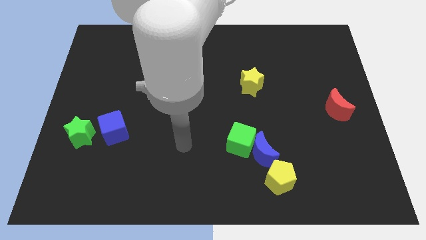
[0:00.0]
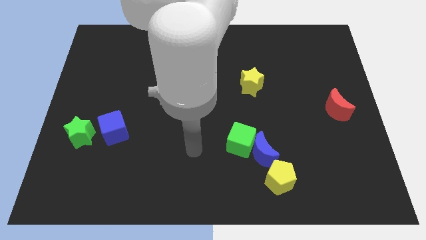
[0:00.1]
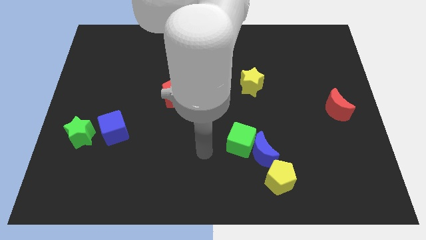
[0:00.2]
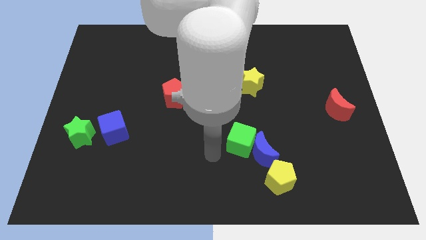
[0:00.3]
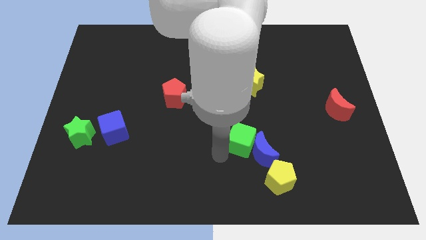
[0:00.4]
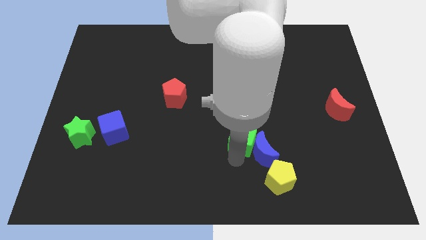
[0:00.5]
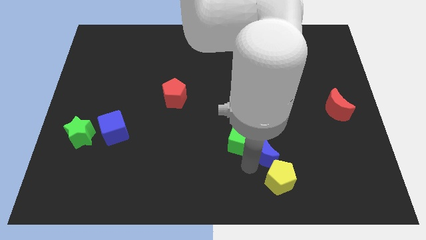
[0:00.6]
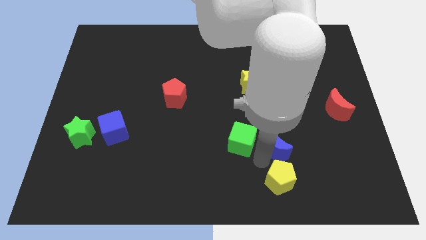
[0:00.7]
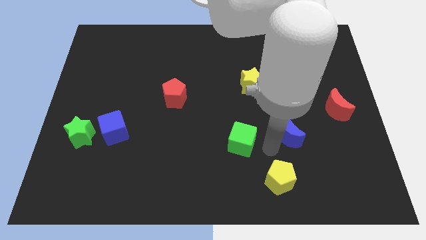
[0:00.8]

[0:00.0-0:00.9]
pull the green cube apart from the blue moon

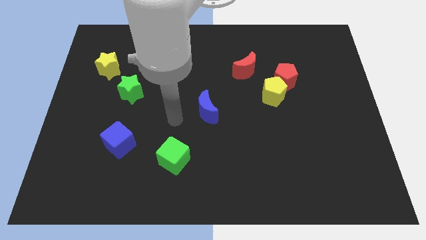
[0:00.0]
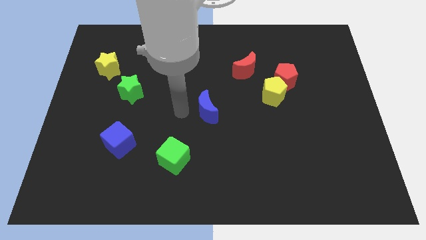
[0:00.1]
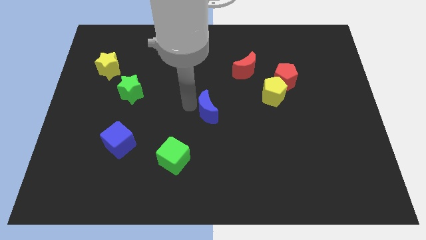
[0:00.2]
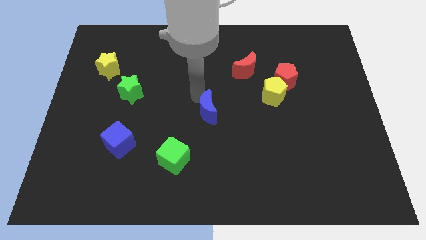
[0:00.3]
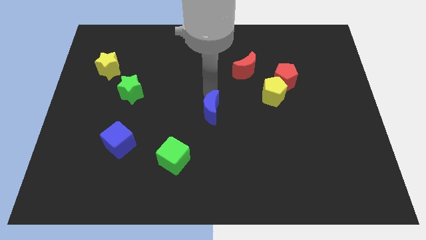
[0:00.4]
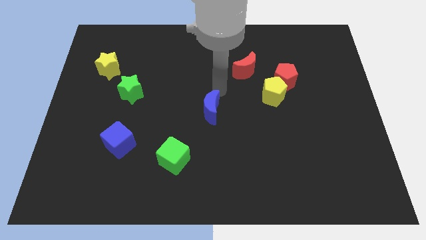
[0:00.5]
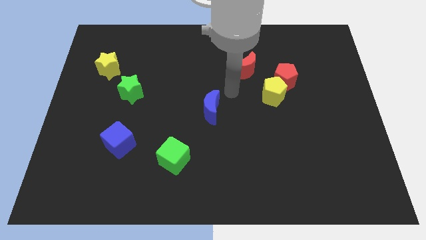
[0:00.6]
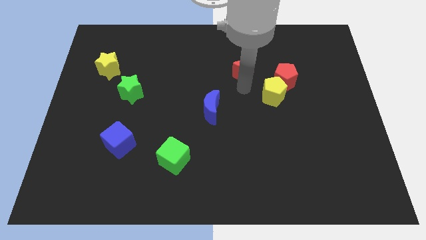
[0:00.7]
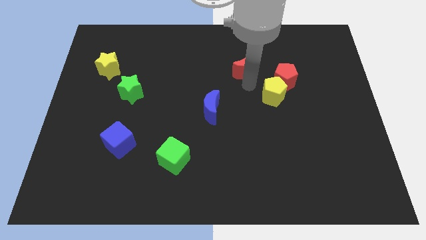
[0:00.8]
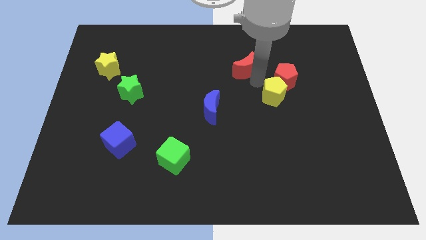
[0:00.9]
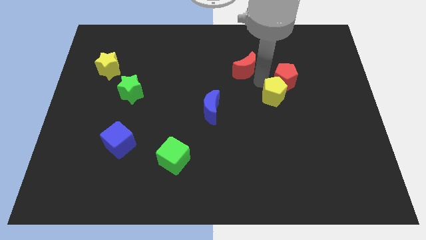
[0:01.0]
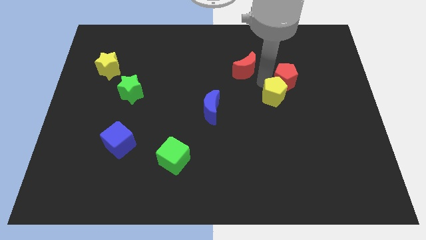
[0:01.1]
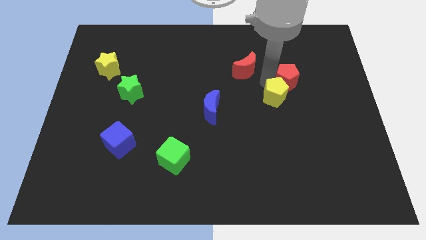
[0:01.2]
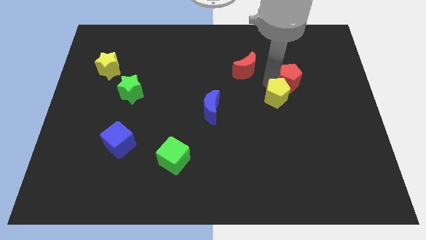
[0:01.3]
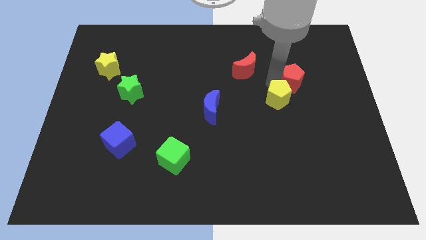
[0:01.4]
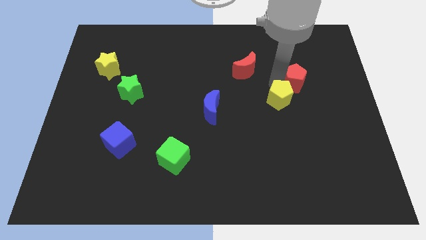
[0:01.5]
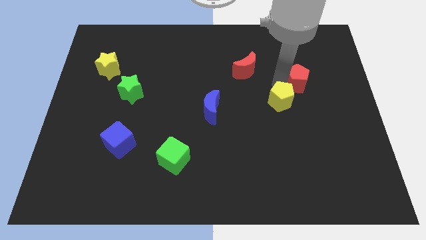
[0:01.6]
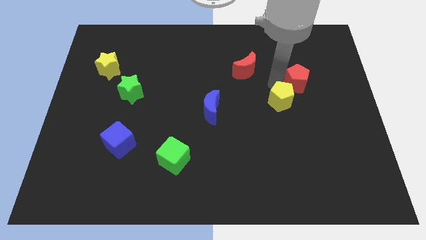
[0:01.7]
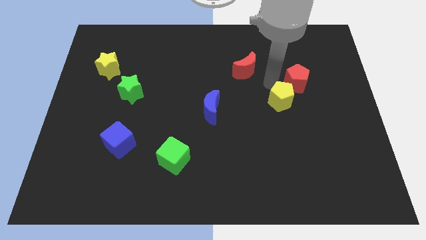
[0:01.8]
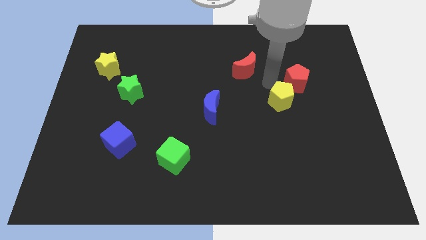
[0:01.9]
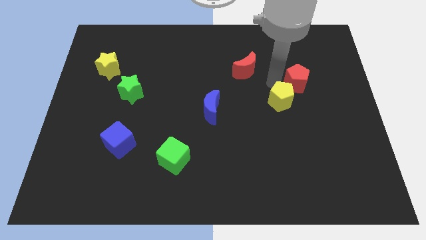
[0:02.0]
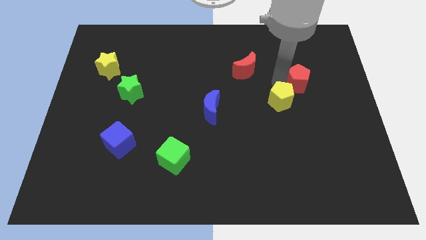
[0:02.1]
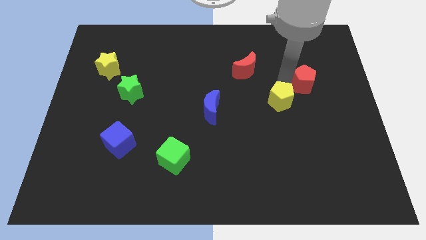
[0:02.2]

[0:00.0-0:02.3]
separate the red pentagon from the yellow pentagon and red moon

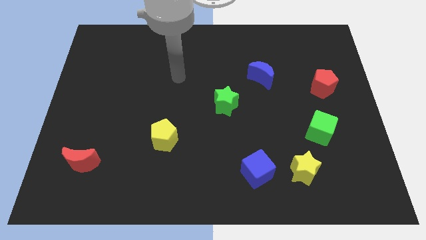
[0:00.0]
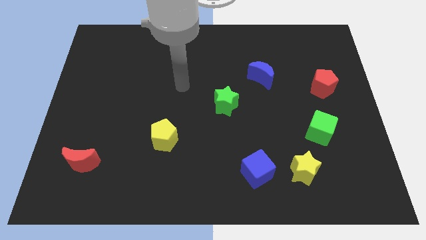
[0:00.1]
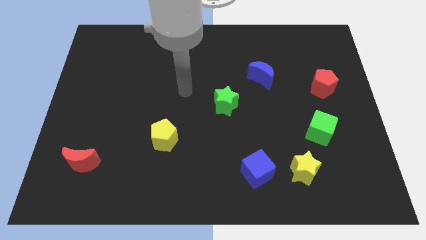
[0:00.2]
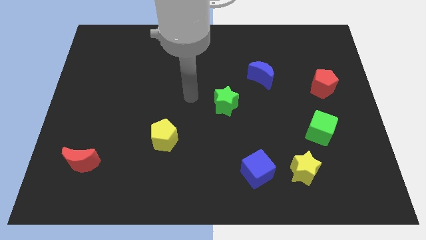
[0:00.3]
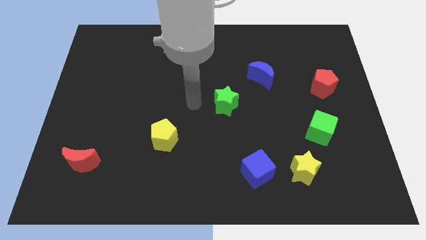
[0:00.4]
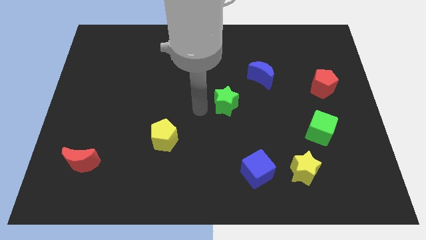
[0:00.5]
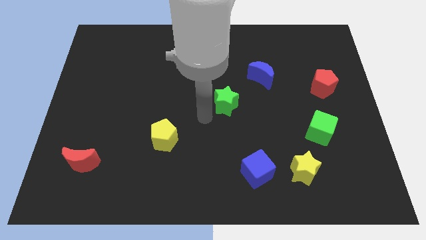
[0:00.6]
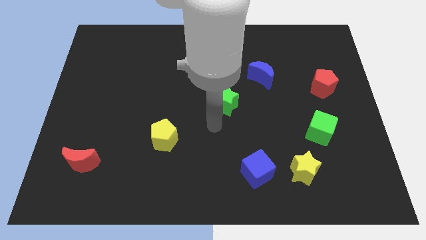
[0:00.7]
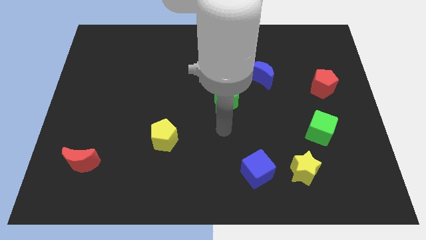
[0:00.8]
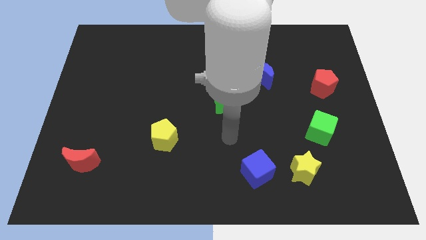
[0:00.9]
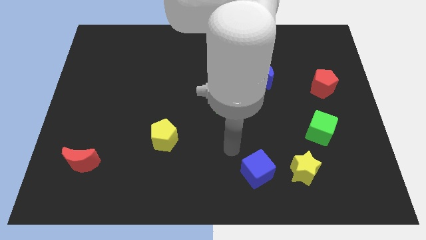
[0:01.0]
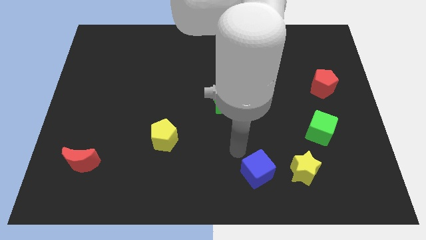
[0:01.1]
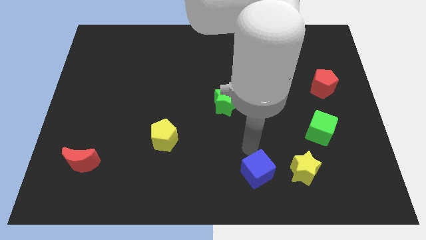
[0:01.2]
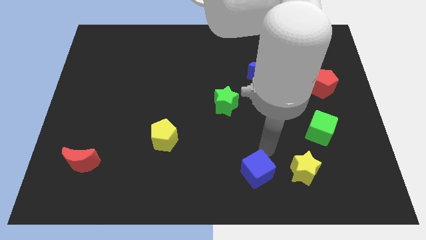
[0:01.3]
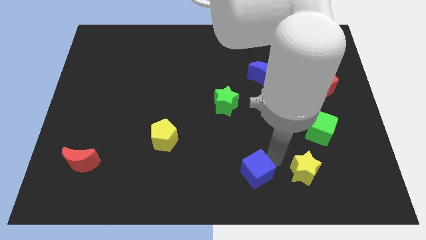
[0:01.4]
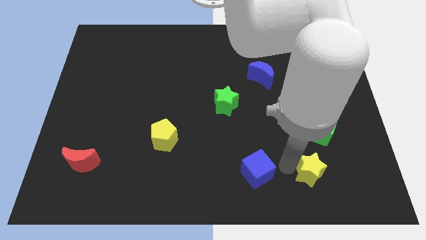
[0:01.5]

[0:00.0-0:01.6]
pull the blue cube apart from the yellow star

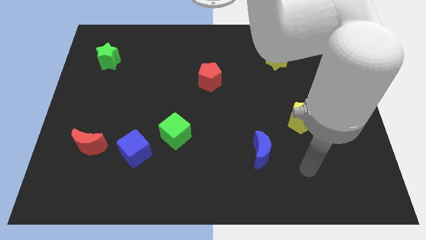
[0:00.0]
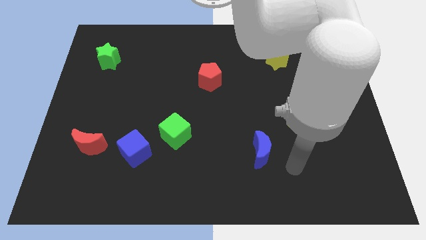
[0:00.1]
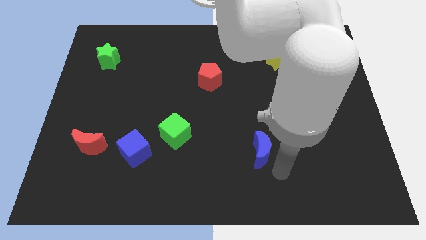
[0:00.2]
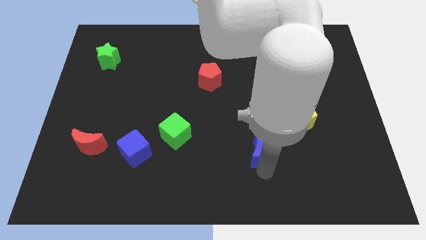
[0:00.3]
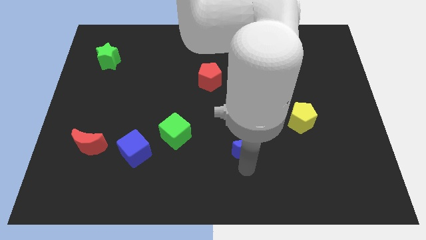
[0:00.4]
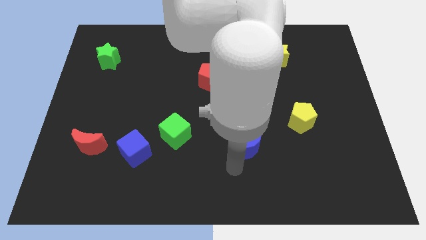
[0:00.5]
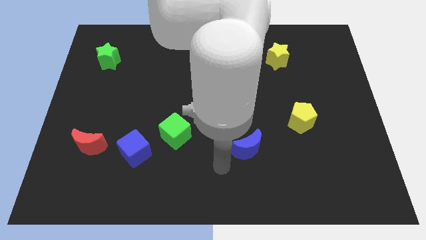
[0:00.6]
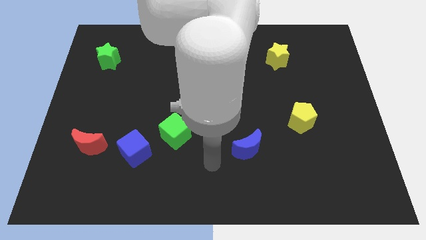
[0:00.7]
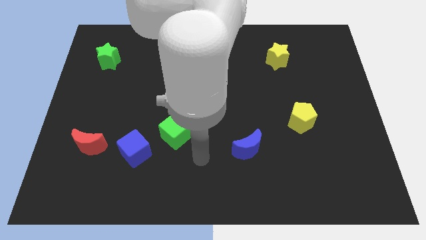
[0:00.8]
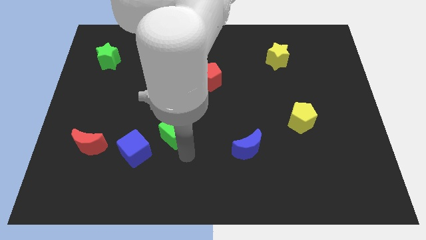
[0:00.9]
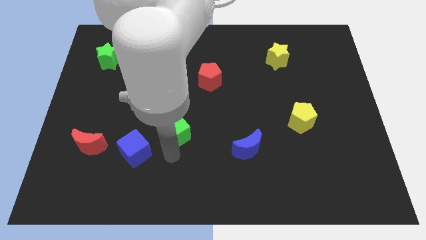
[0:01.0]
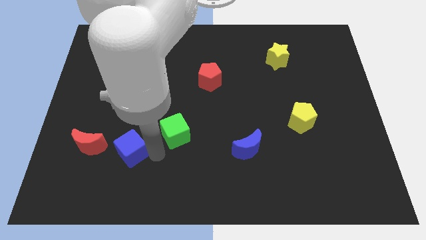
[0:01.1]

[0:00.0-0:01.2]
move the green cube away from the blue cube

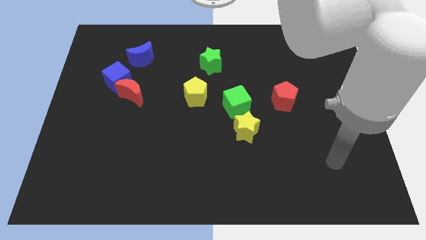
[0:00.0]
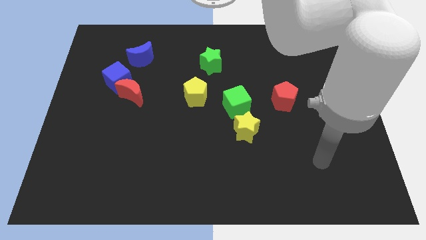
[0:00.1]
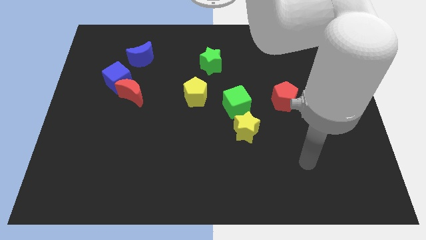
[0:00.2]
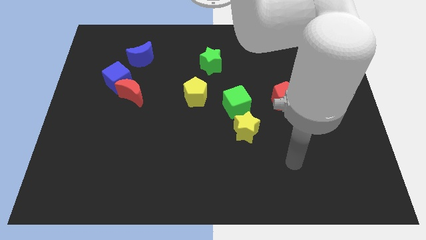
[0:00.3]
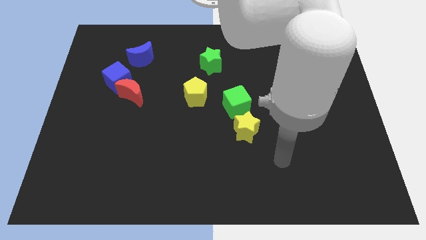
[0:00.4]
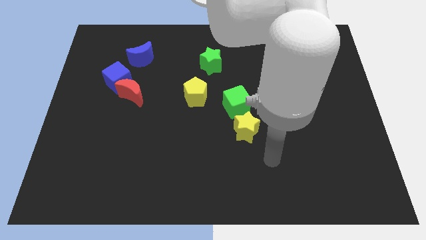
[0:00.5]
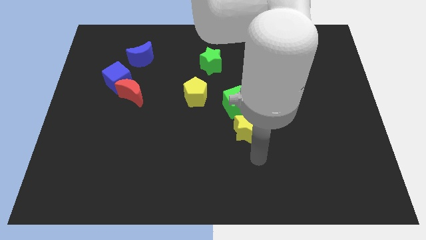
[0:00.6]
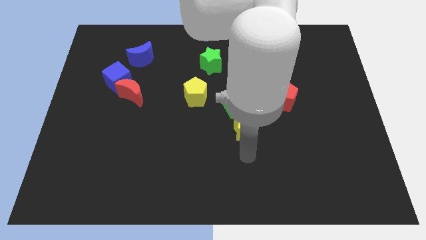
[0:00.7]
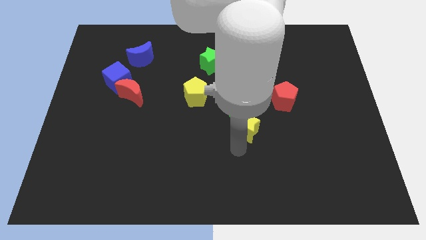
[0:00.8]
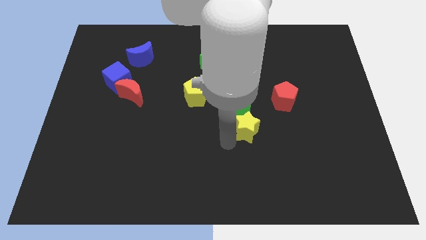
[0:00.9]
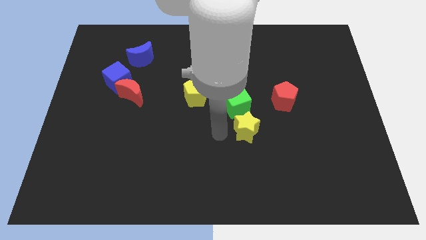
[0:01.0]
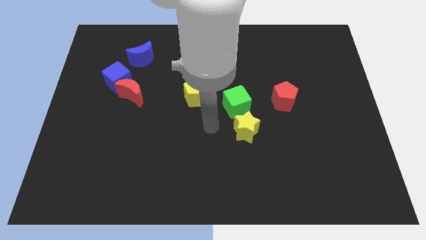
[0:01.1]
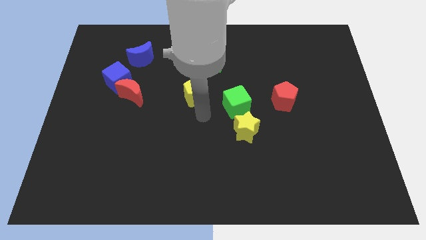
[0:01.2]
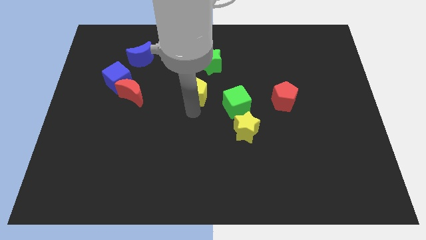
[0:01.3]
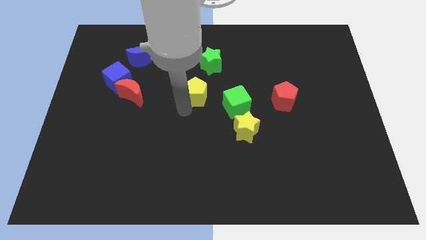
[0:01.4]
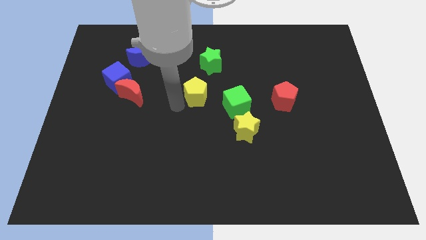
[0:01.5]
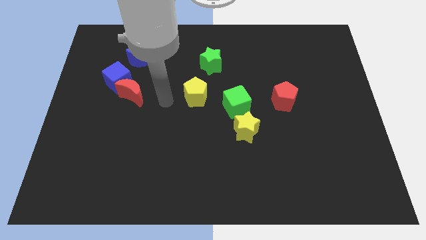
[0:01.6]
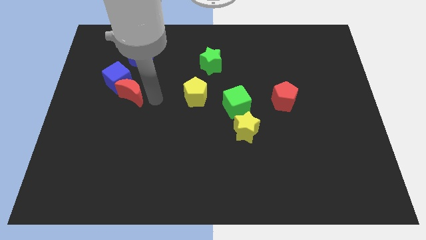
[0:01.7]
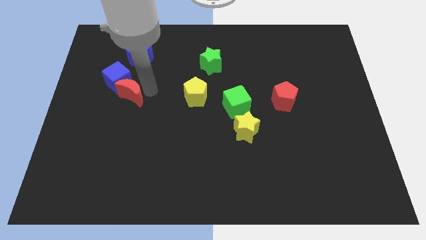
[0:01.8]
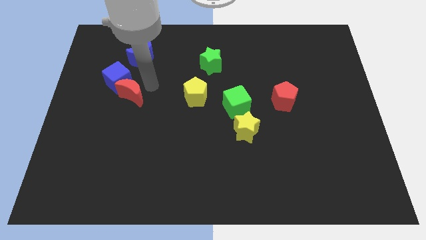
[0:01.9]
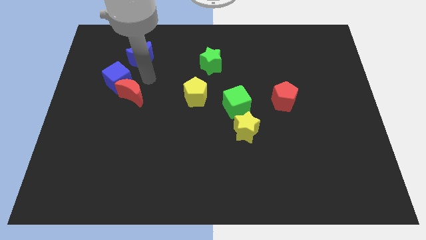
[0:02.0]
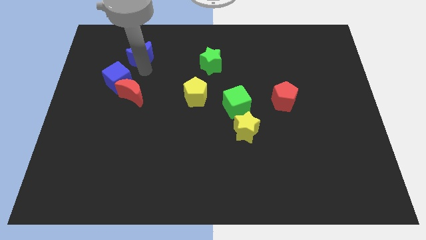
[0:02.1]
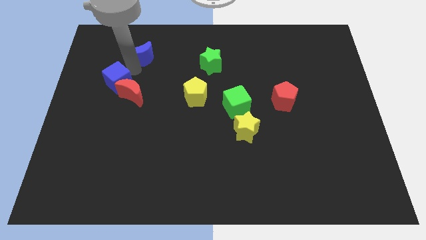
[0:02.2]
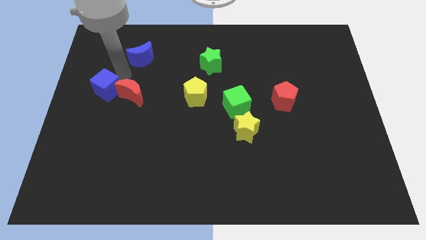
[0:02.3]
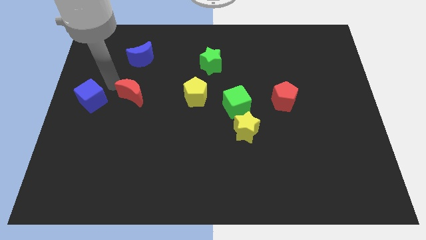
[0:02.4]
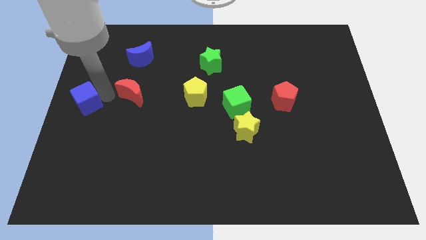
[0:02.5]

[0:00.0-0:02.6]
separate the red moon from the blue cube

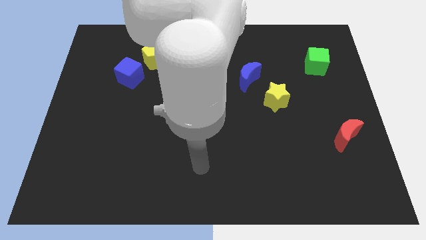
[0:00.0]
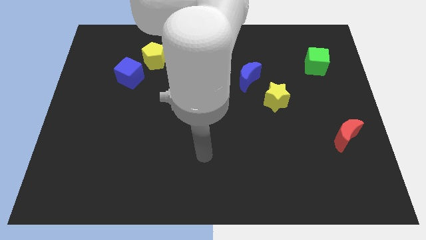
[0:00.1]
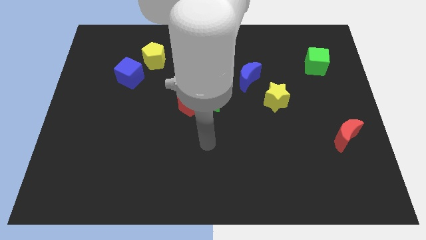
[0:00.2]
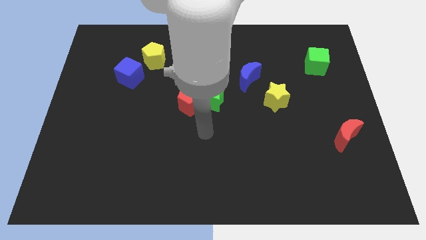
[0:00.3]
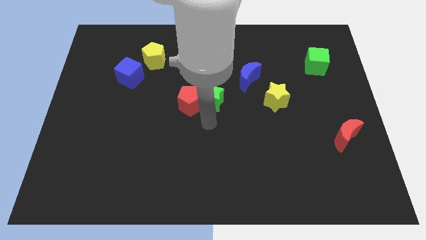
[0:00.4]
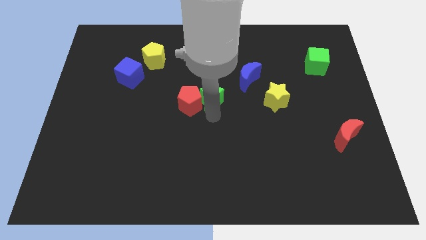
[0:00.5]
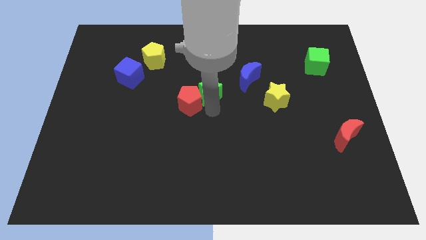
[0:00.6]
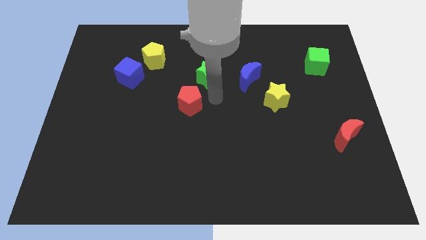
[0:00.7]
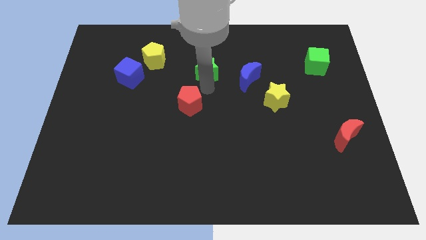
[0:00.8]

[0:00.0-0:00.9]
move the red pentagon away from the green star
